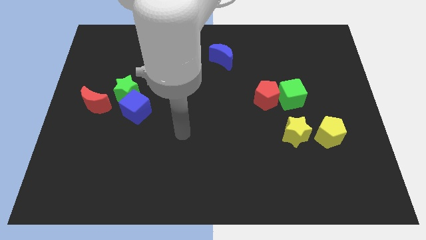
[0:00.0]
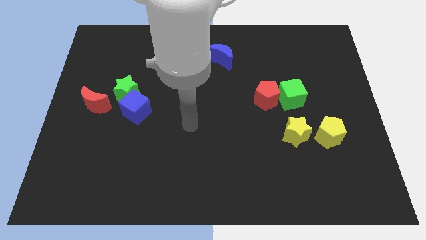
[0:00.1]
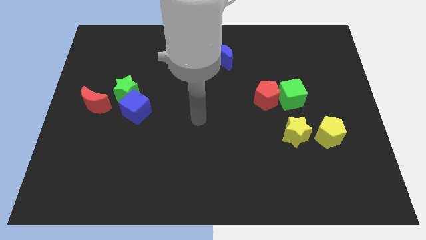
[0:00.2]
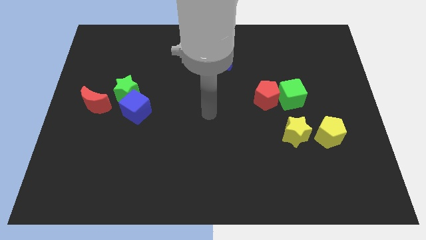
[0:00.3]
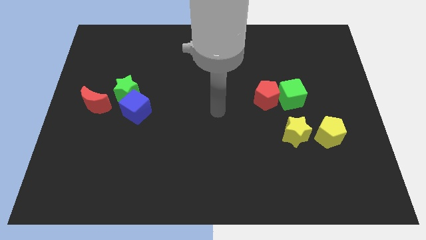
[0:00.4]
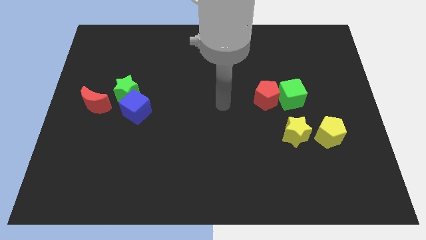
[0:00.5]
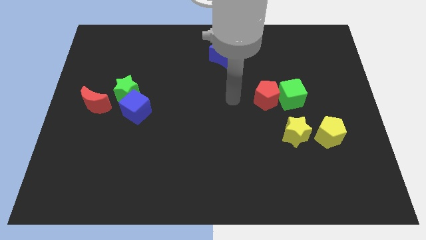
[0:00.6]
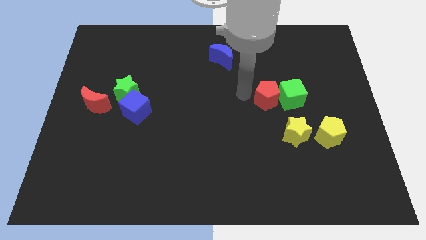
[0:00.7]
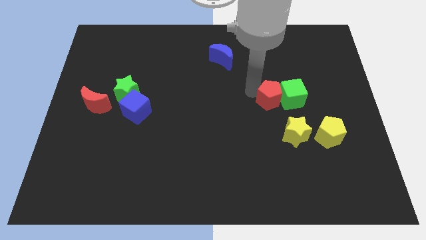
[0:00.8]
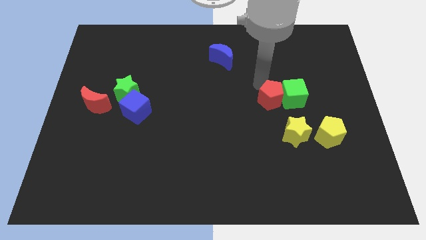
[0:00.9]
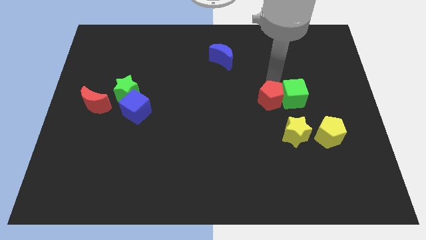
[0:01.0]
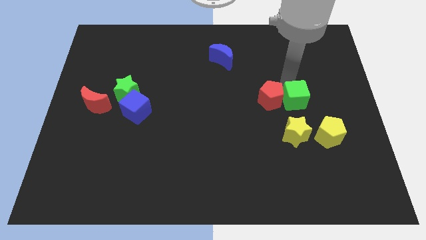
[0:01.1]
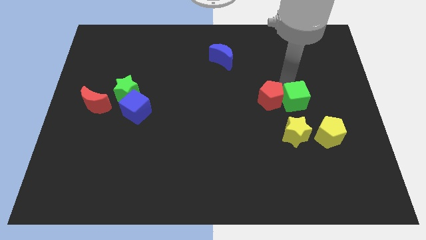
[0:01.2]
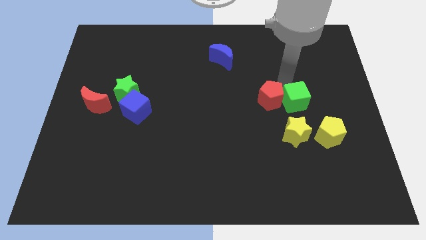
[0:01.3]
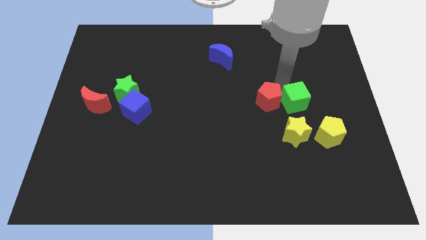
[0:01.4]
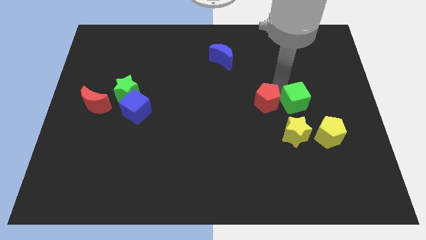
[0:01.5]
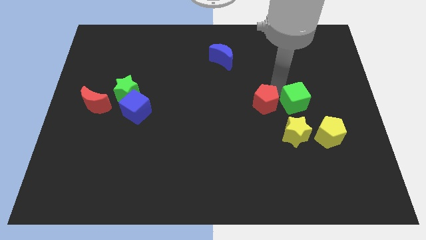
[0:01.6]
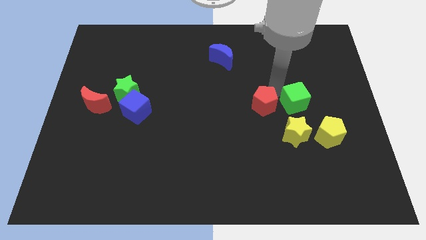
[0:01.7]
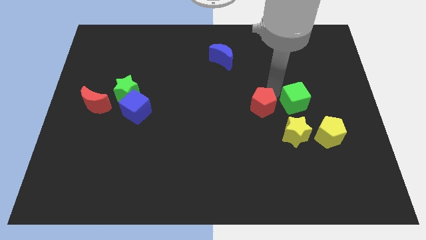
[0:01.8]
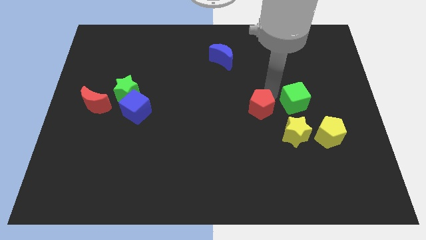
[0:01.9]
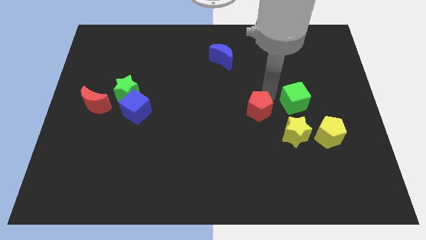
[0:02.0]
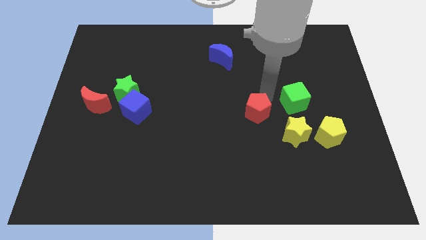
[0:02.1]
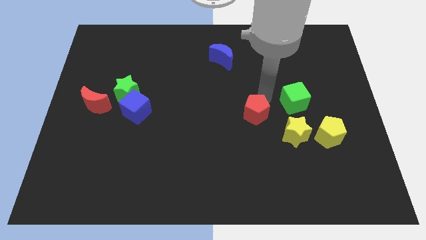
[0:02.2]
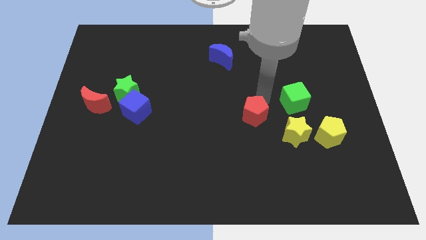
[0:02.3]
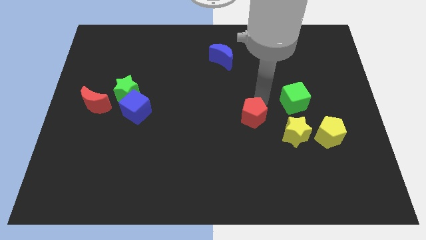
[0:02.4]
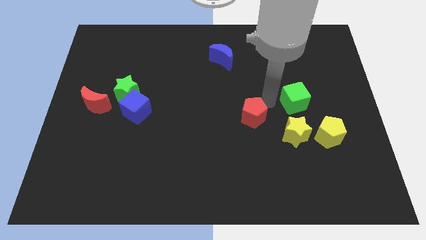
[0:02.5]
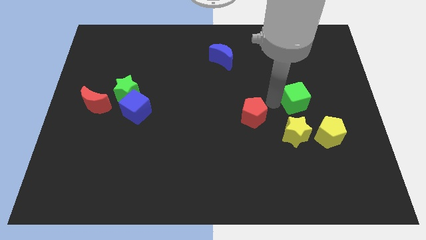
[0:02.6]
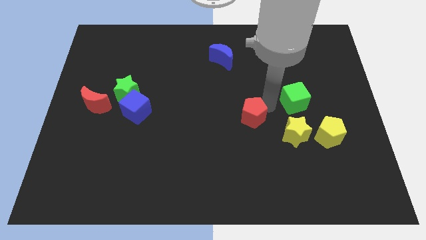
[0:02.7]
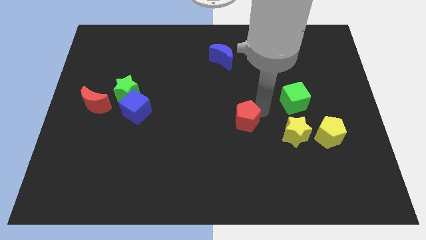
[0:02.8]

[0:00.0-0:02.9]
push the red pentagon diagonally down and to the left somewhat

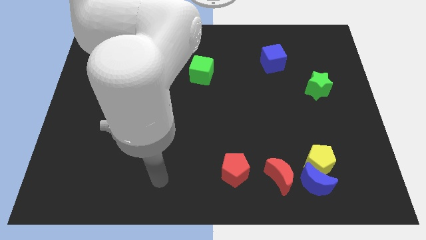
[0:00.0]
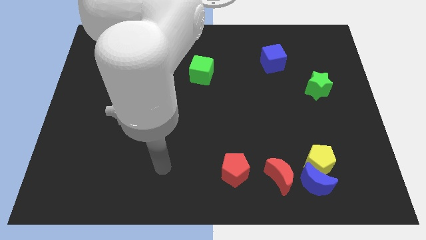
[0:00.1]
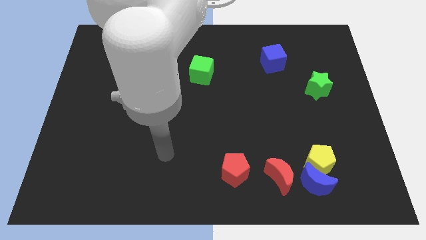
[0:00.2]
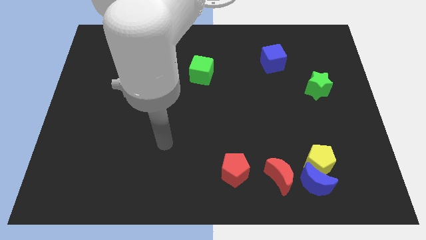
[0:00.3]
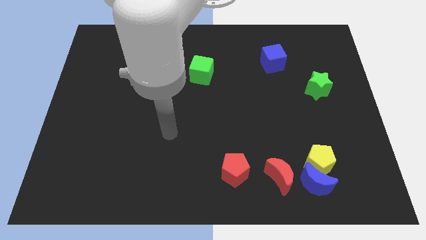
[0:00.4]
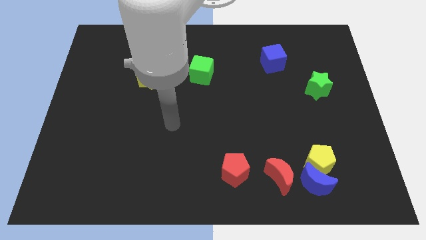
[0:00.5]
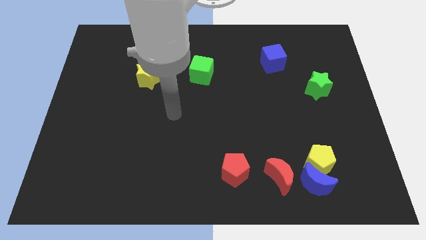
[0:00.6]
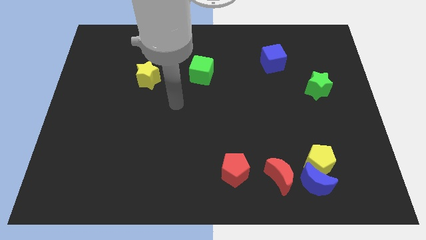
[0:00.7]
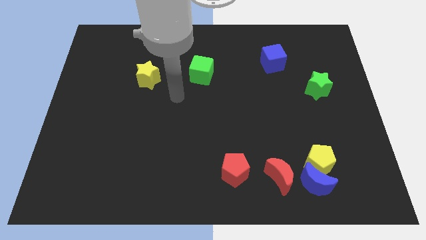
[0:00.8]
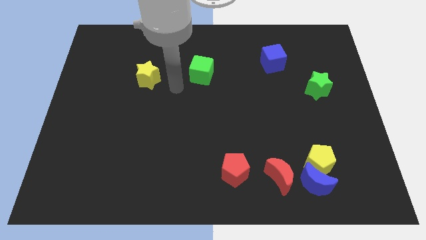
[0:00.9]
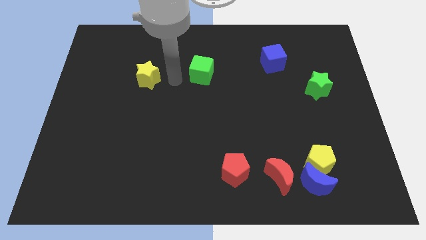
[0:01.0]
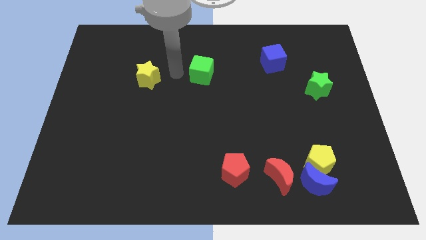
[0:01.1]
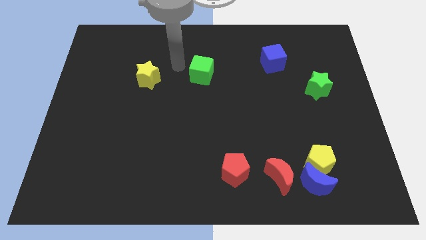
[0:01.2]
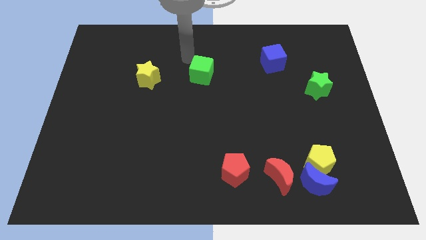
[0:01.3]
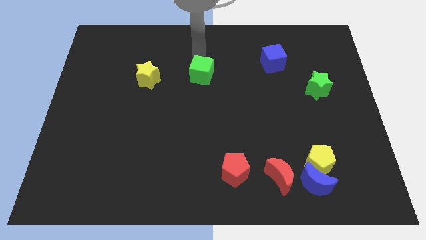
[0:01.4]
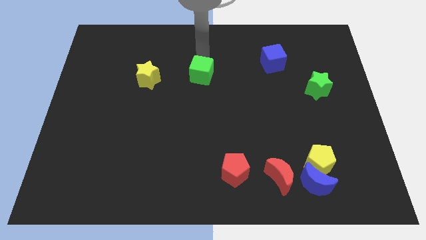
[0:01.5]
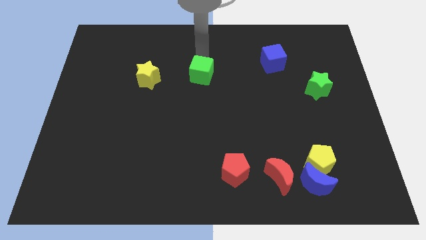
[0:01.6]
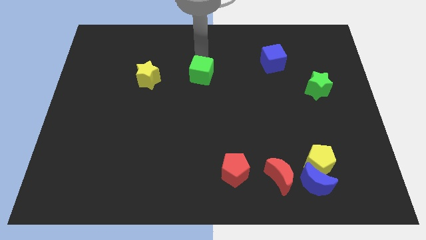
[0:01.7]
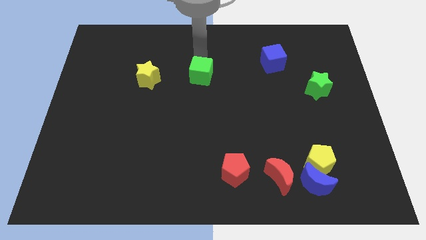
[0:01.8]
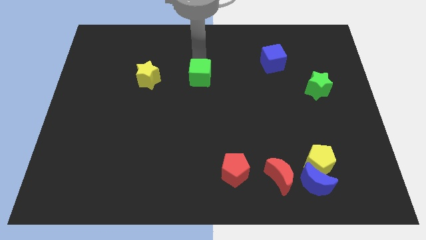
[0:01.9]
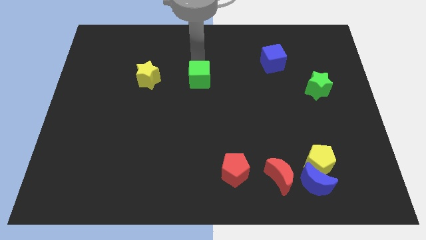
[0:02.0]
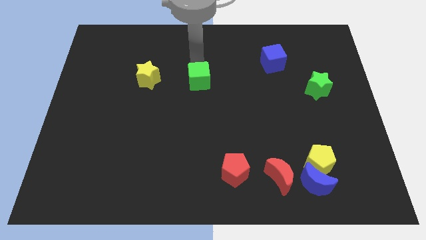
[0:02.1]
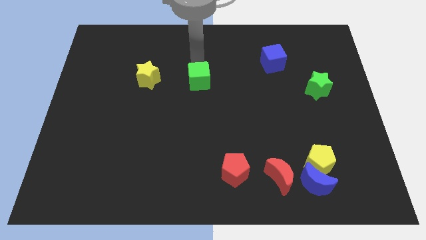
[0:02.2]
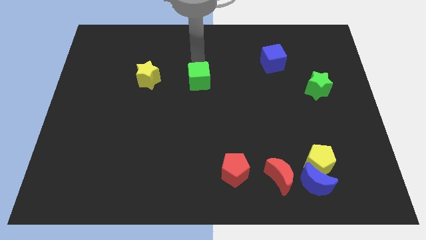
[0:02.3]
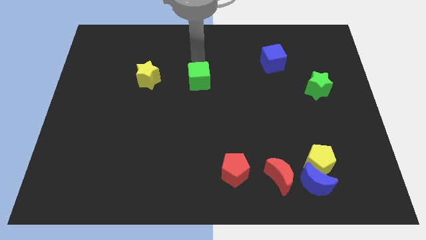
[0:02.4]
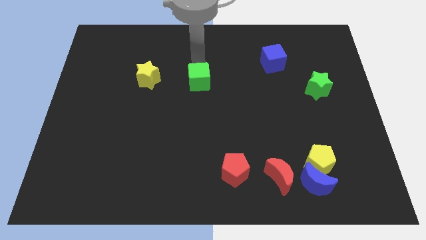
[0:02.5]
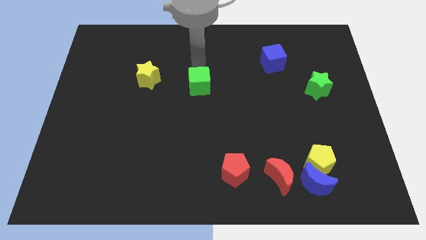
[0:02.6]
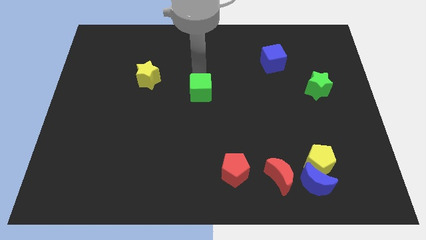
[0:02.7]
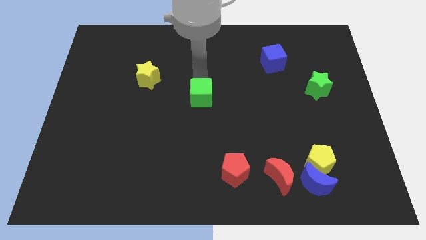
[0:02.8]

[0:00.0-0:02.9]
push the green cube a bit down

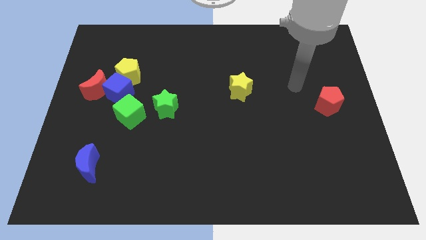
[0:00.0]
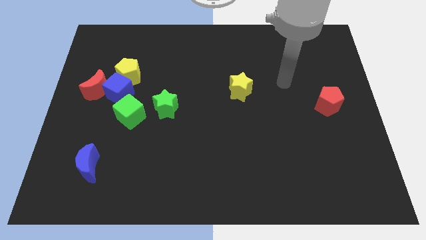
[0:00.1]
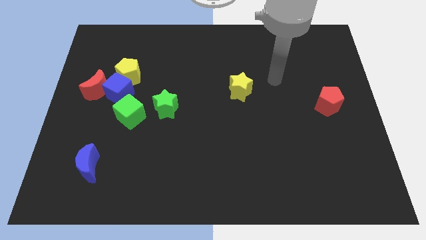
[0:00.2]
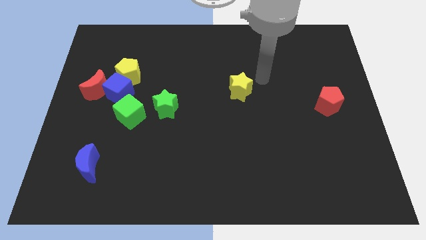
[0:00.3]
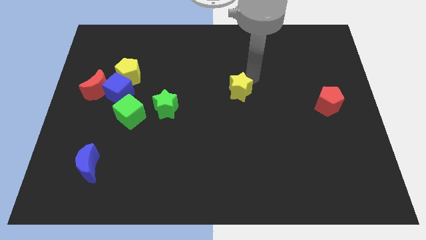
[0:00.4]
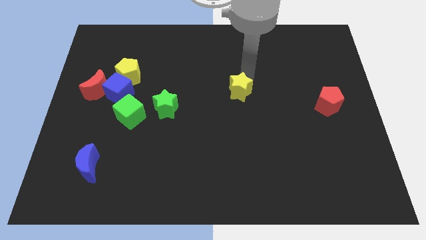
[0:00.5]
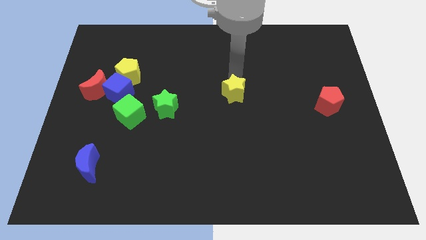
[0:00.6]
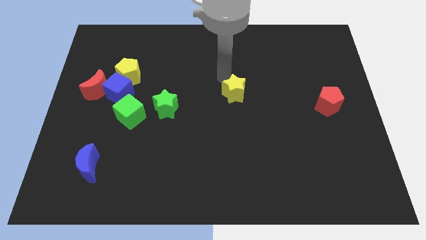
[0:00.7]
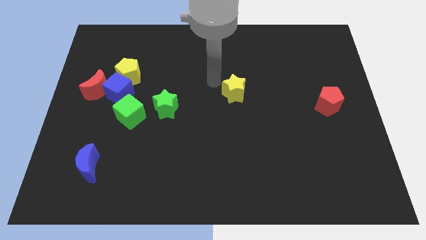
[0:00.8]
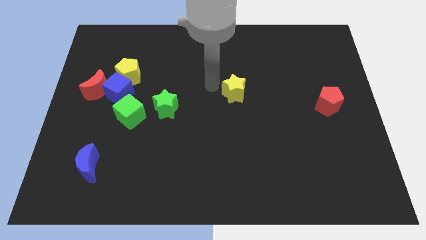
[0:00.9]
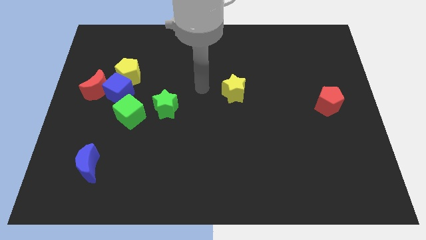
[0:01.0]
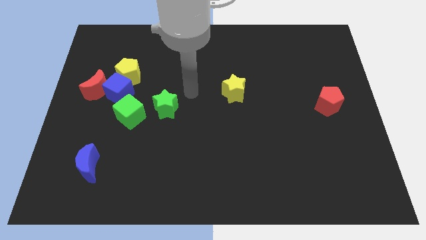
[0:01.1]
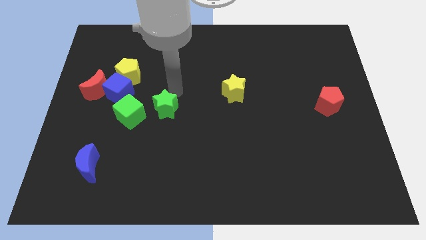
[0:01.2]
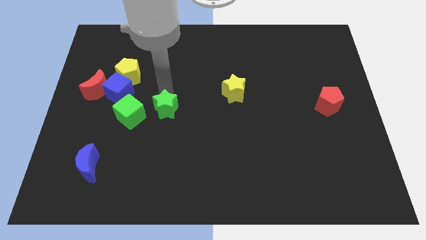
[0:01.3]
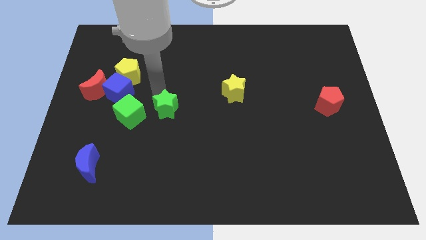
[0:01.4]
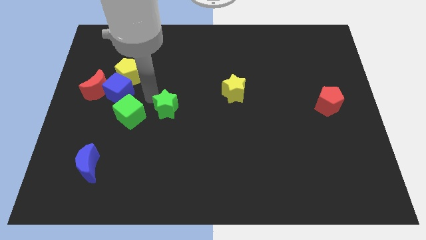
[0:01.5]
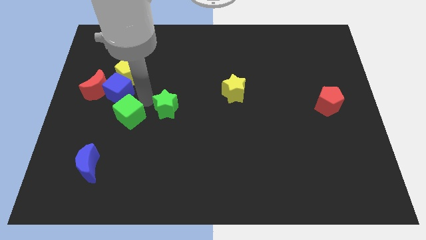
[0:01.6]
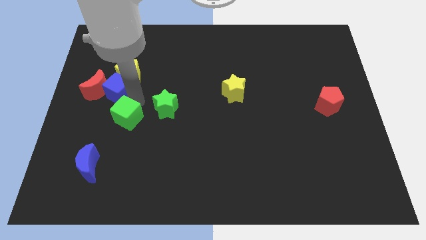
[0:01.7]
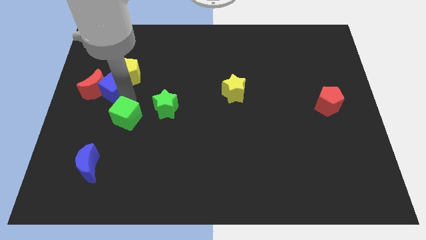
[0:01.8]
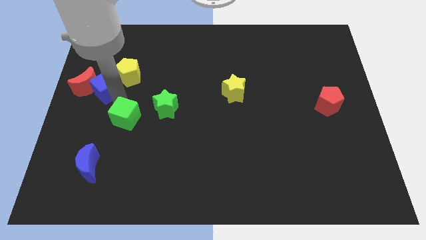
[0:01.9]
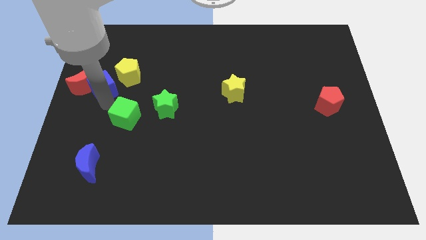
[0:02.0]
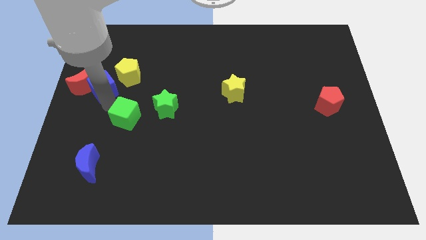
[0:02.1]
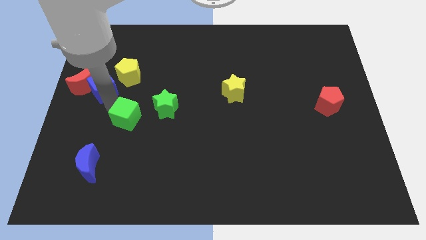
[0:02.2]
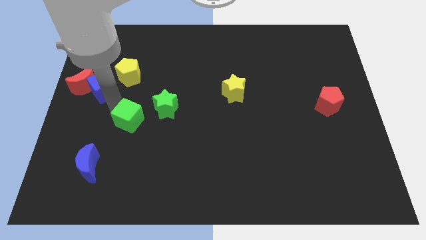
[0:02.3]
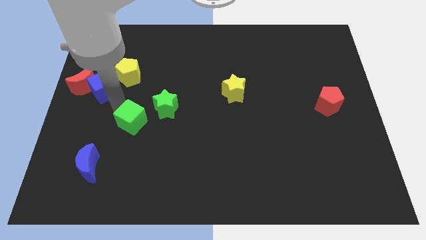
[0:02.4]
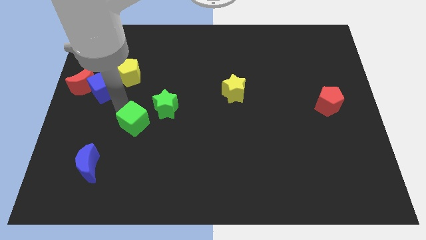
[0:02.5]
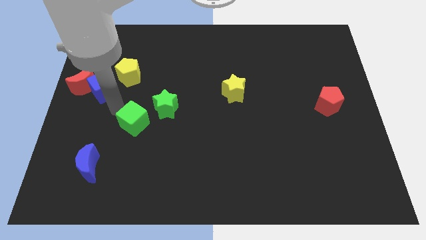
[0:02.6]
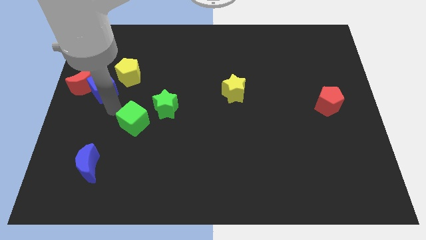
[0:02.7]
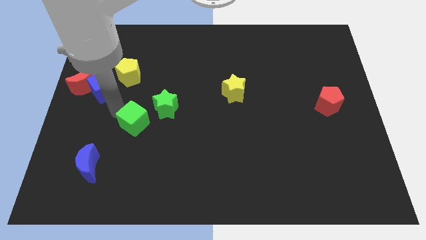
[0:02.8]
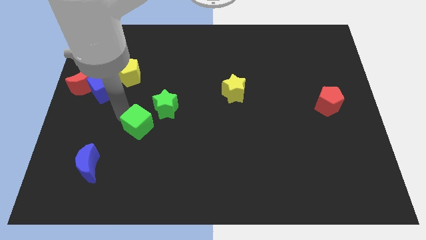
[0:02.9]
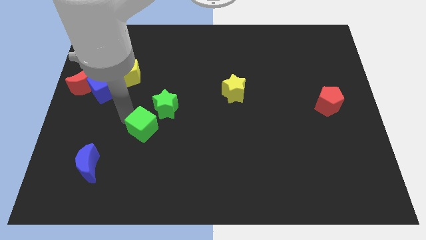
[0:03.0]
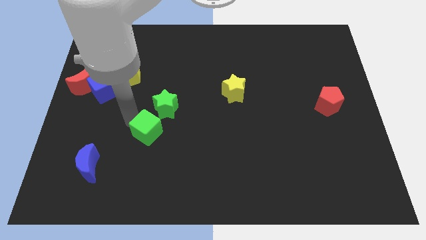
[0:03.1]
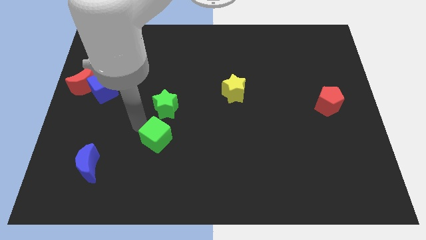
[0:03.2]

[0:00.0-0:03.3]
move the green cube somewhat downwards and to the right
